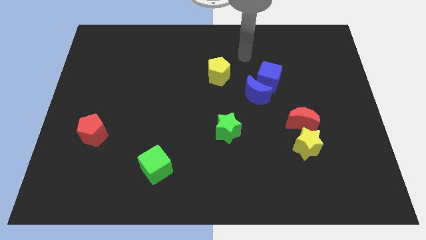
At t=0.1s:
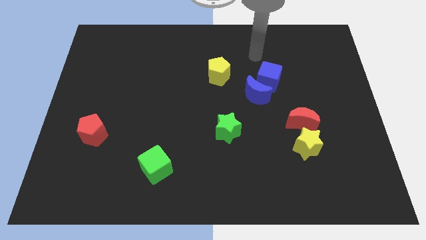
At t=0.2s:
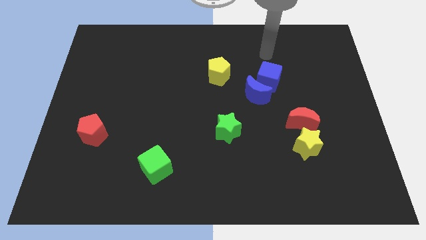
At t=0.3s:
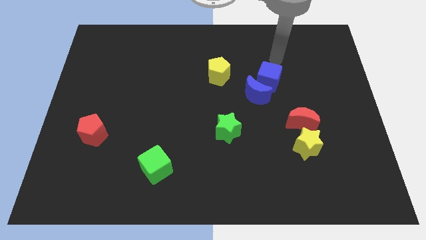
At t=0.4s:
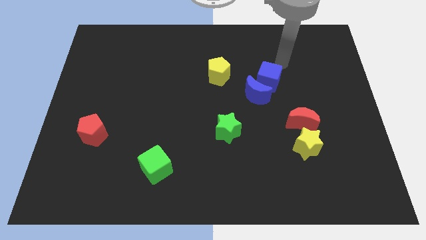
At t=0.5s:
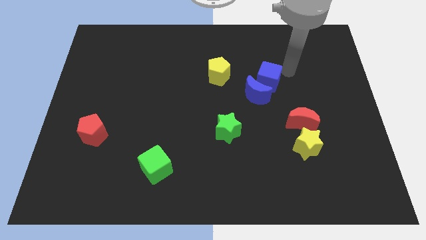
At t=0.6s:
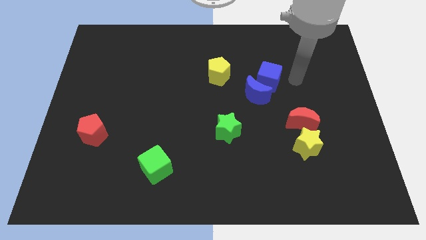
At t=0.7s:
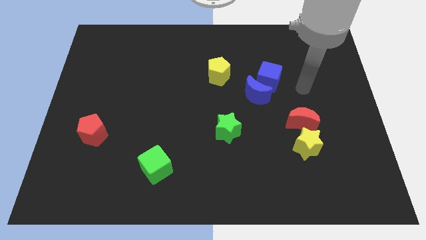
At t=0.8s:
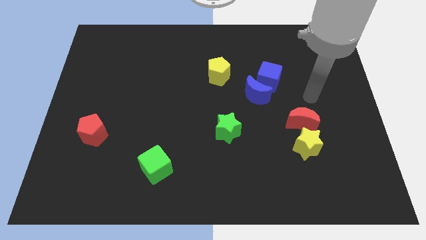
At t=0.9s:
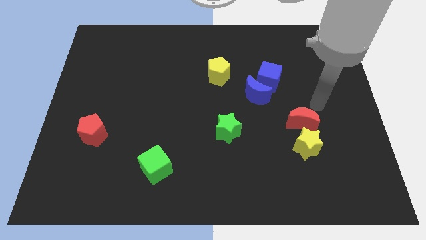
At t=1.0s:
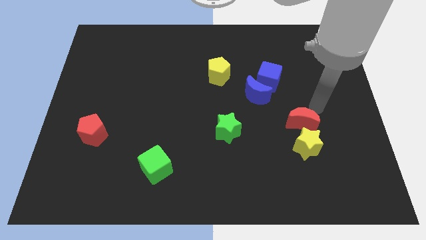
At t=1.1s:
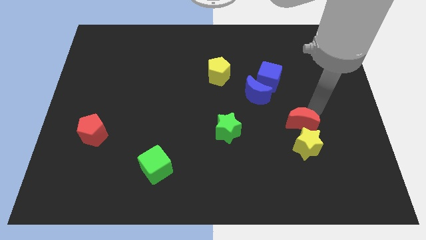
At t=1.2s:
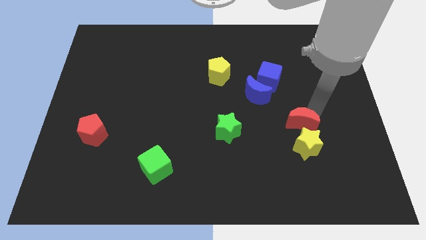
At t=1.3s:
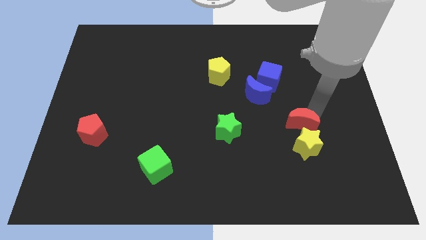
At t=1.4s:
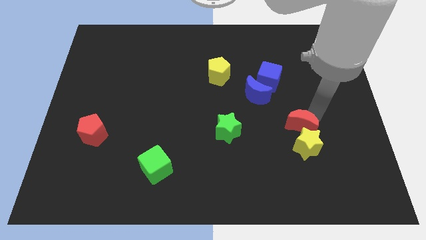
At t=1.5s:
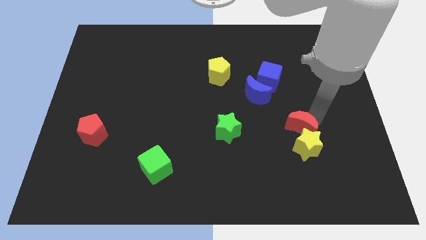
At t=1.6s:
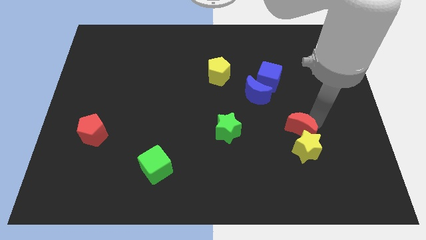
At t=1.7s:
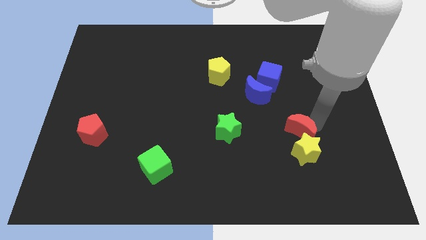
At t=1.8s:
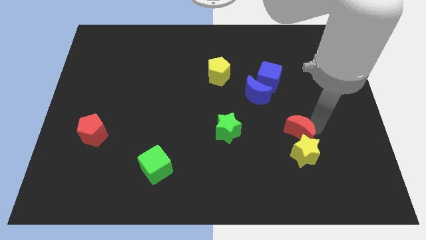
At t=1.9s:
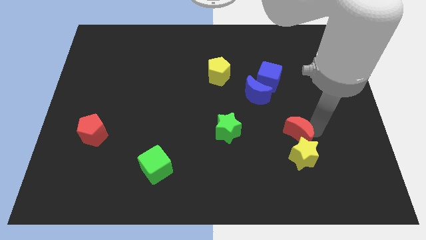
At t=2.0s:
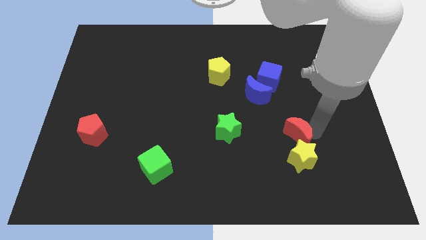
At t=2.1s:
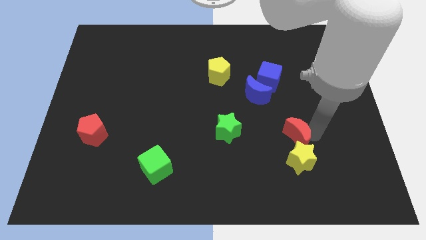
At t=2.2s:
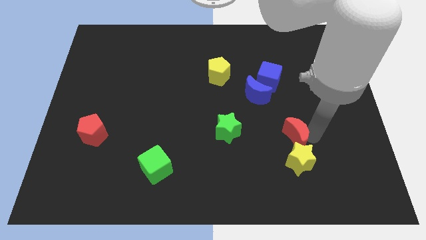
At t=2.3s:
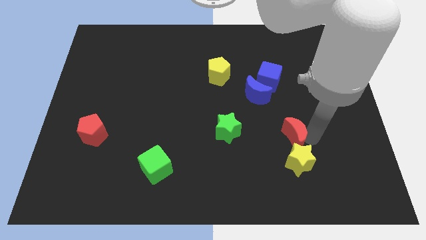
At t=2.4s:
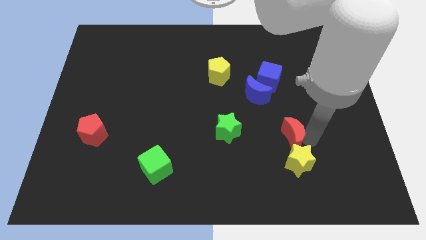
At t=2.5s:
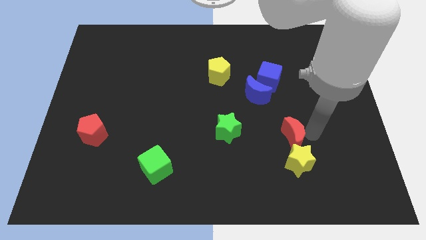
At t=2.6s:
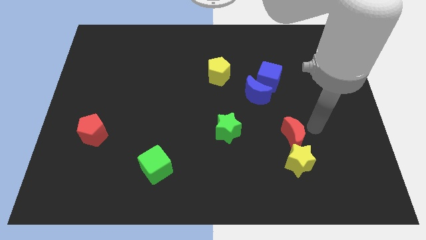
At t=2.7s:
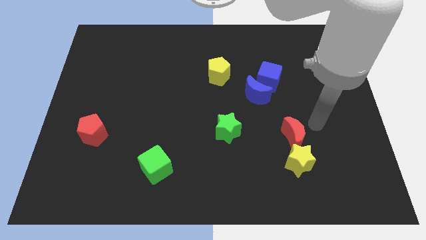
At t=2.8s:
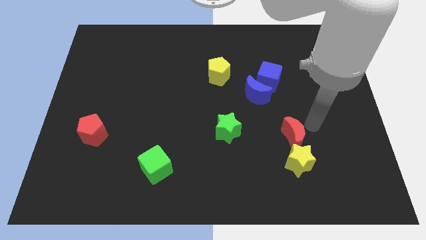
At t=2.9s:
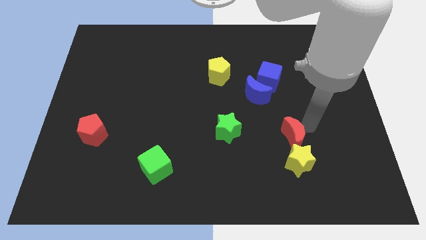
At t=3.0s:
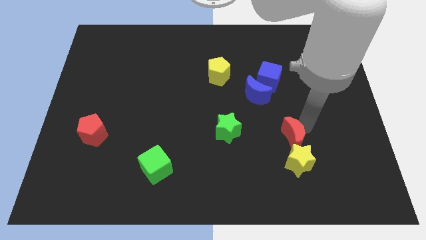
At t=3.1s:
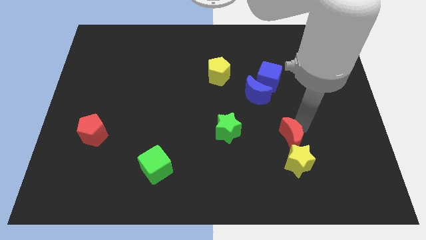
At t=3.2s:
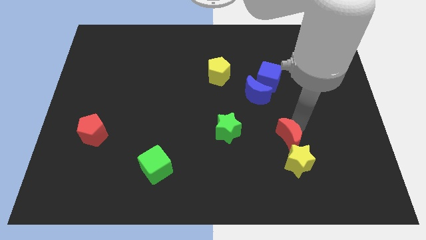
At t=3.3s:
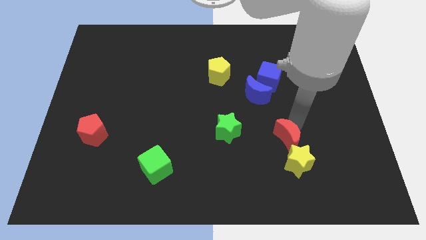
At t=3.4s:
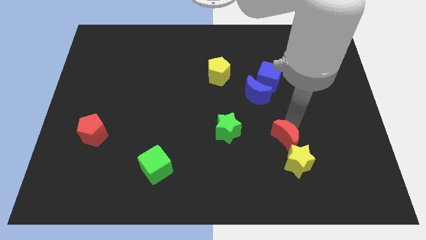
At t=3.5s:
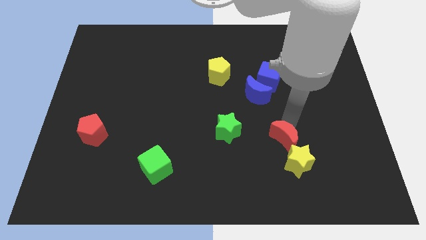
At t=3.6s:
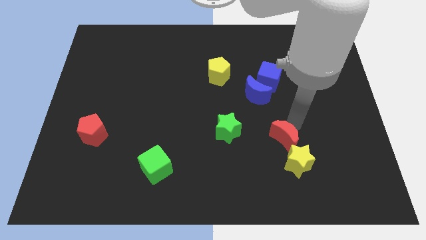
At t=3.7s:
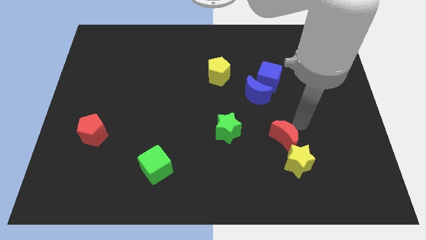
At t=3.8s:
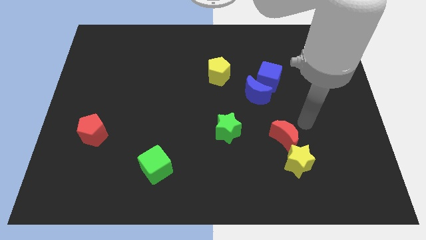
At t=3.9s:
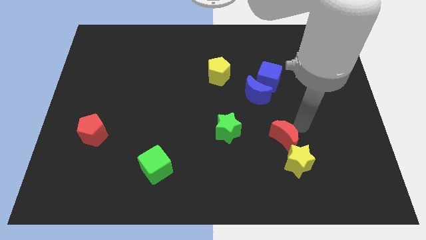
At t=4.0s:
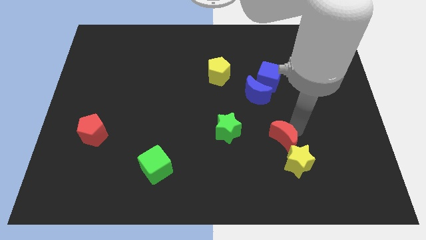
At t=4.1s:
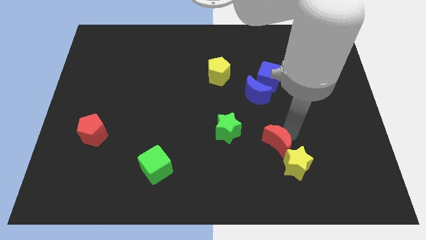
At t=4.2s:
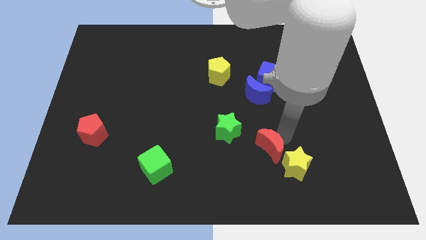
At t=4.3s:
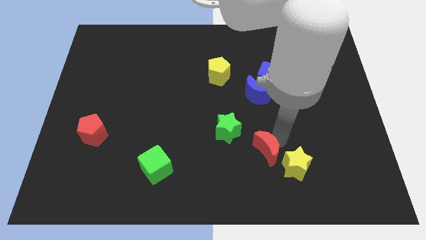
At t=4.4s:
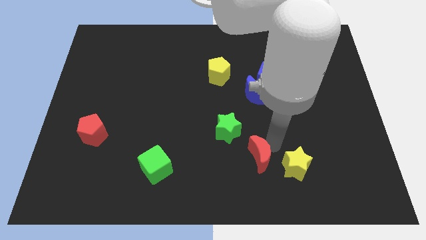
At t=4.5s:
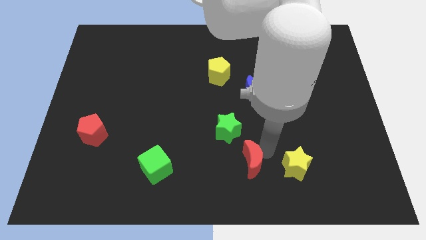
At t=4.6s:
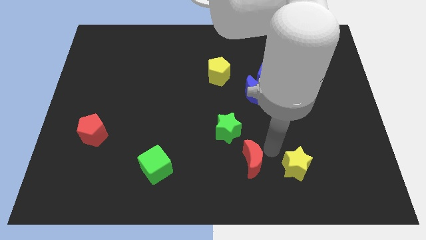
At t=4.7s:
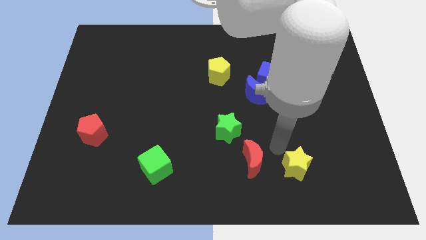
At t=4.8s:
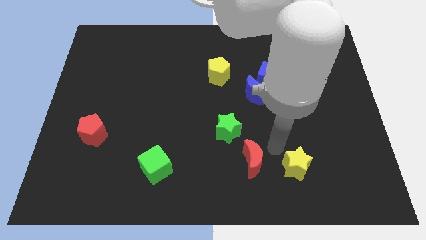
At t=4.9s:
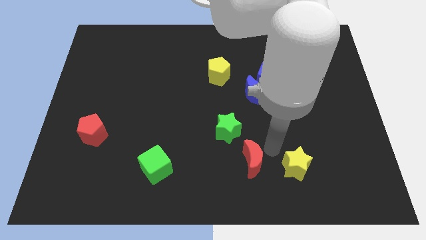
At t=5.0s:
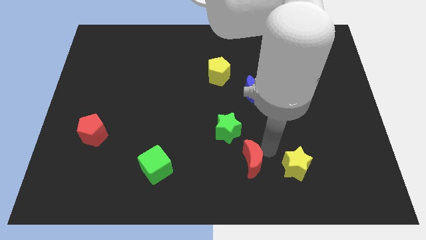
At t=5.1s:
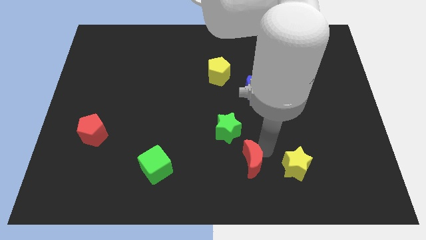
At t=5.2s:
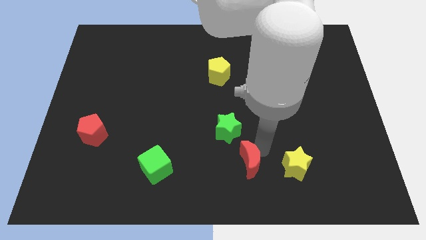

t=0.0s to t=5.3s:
slide the red moon to the bottom of the green star

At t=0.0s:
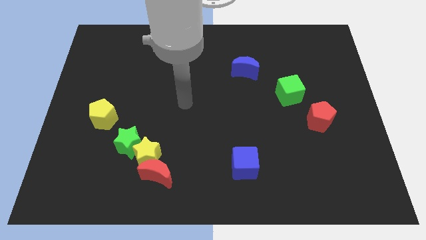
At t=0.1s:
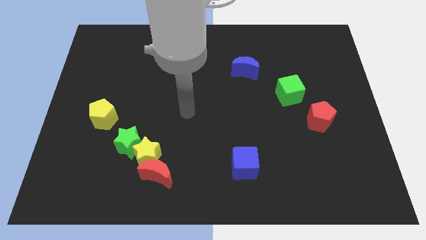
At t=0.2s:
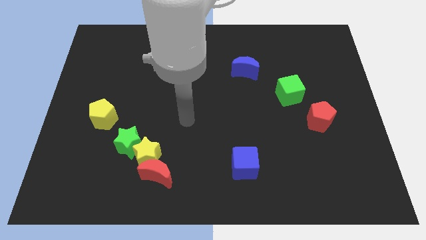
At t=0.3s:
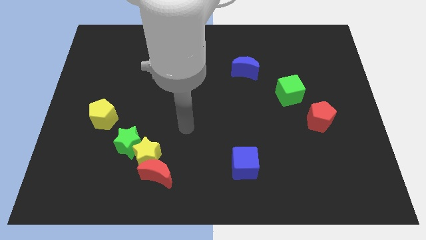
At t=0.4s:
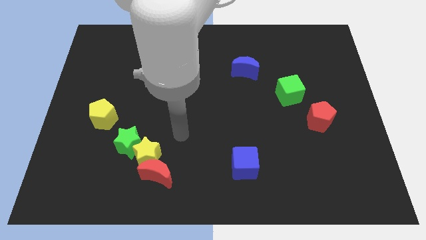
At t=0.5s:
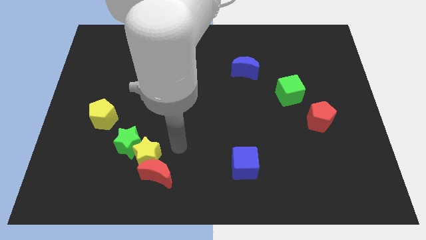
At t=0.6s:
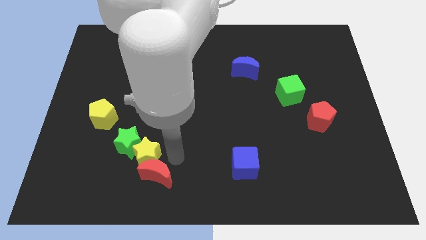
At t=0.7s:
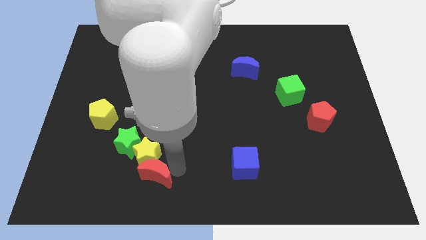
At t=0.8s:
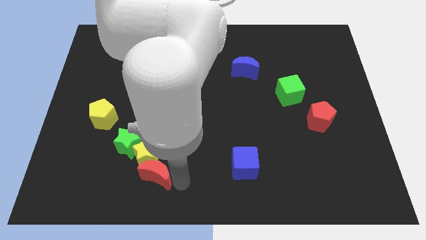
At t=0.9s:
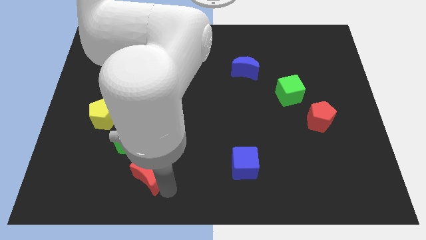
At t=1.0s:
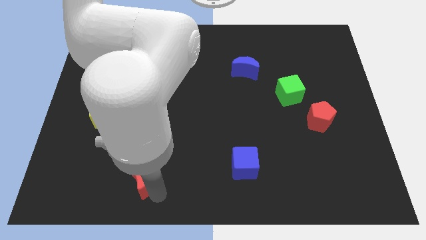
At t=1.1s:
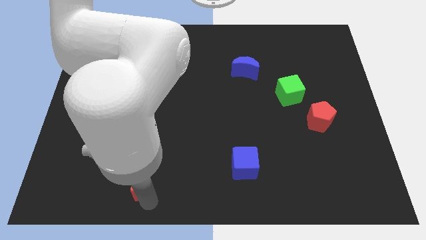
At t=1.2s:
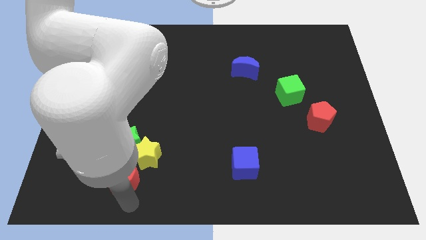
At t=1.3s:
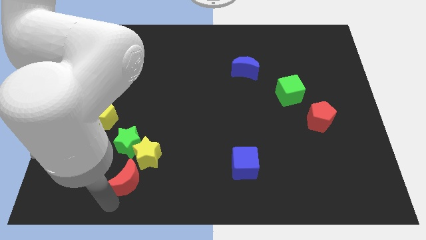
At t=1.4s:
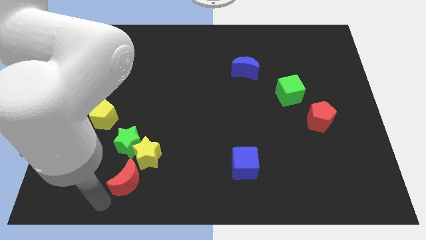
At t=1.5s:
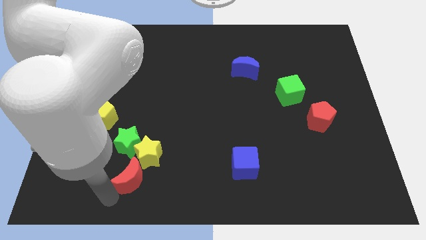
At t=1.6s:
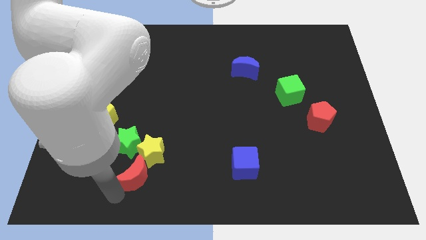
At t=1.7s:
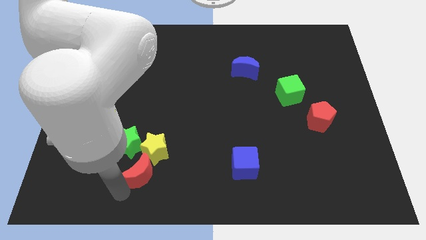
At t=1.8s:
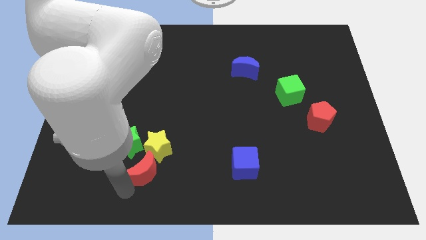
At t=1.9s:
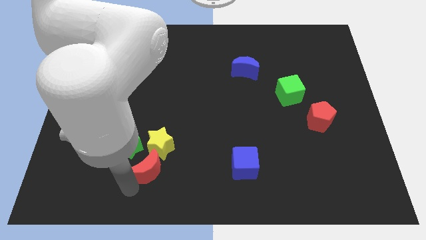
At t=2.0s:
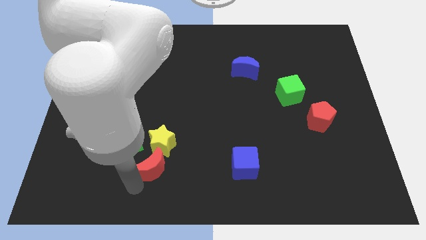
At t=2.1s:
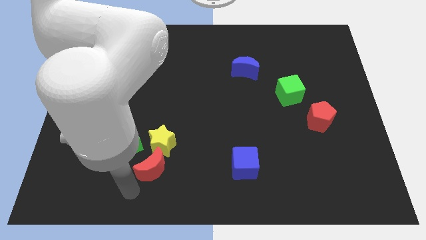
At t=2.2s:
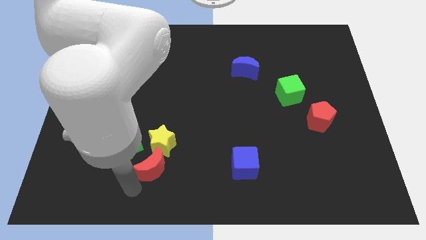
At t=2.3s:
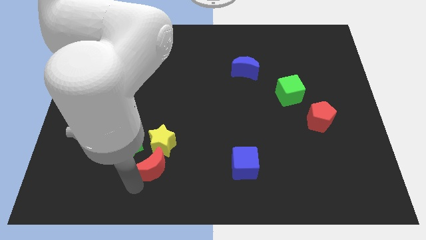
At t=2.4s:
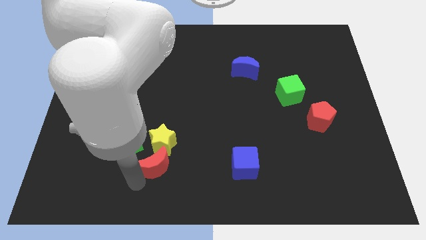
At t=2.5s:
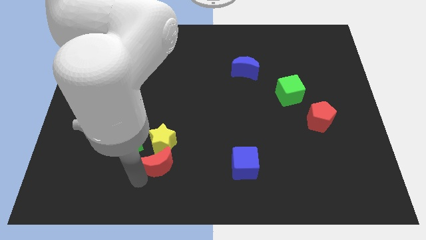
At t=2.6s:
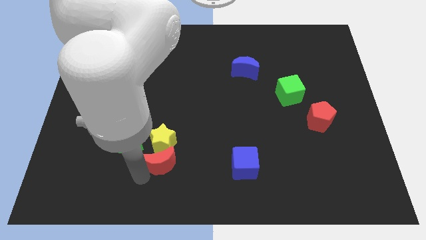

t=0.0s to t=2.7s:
push the red moon just right of the green star
